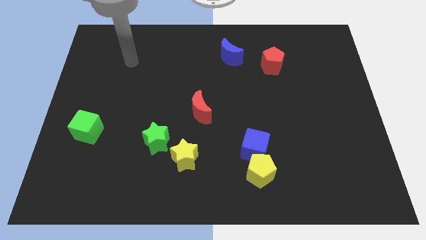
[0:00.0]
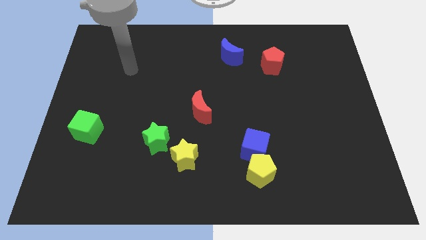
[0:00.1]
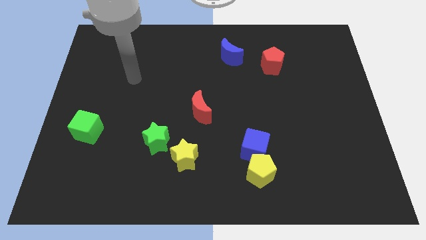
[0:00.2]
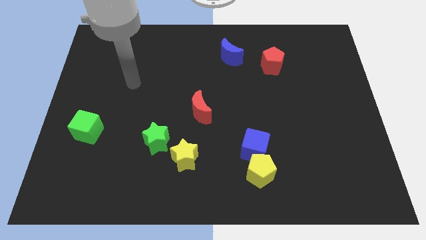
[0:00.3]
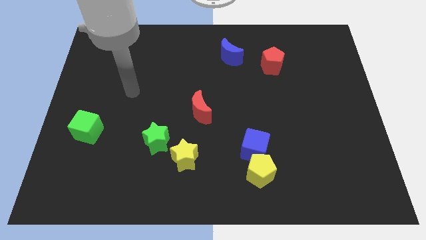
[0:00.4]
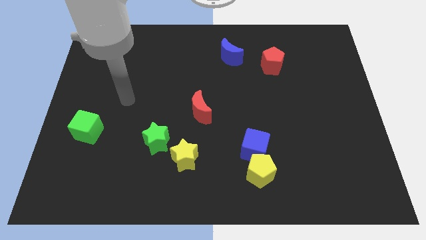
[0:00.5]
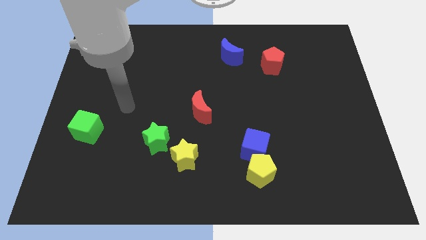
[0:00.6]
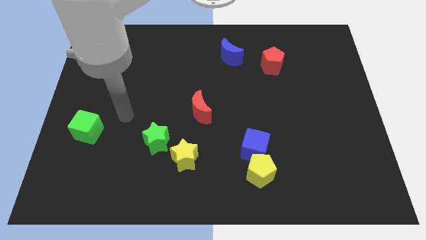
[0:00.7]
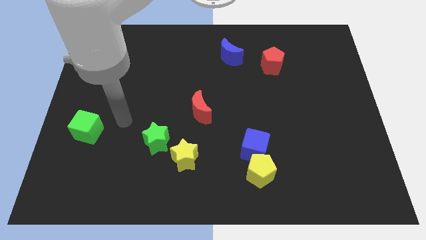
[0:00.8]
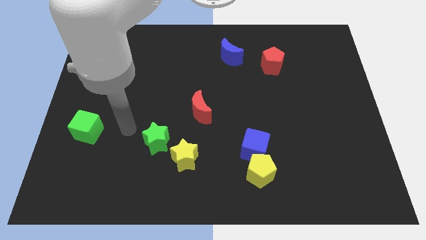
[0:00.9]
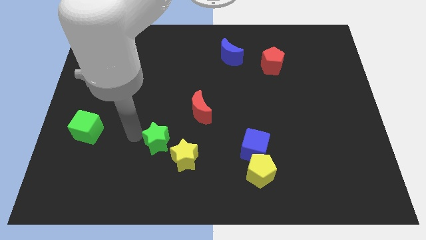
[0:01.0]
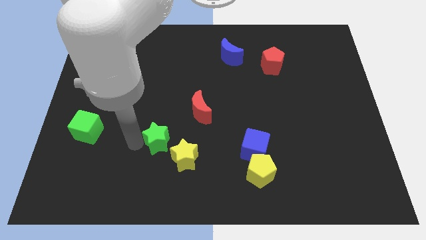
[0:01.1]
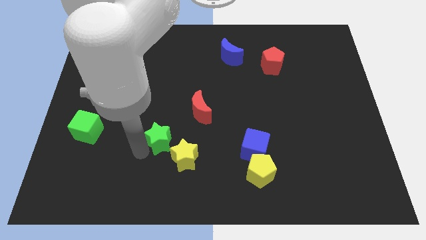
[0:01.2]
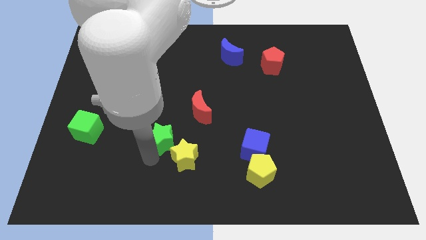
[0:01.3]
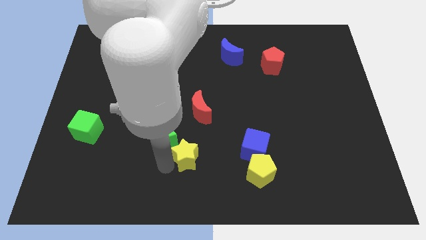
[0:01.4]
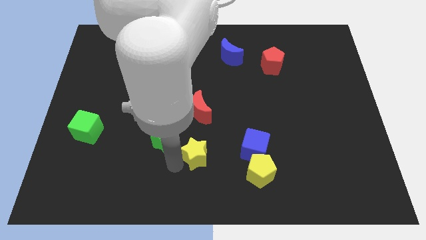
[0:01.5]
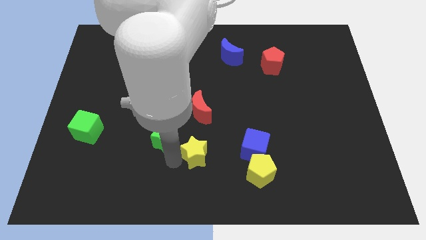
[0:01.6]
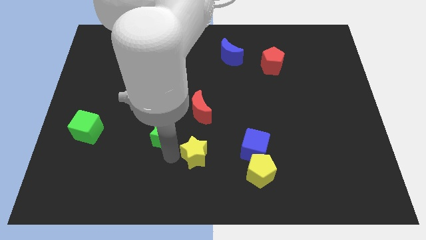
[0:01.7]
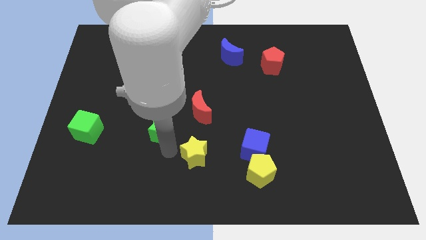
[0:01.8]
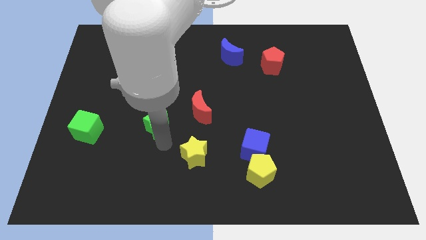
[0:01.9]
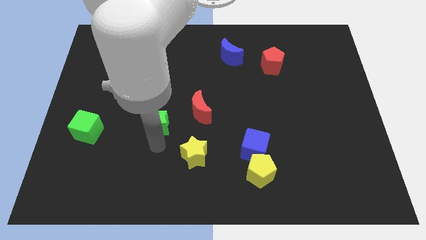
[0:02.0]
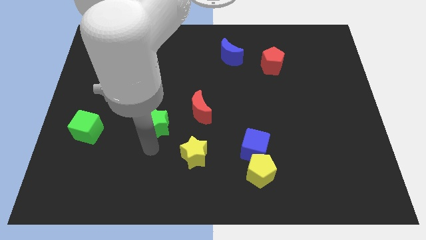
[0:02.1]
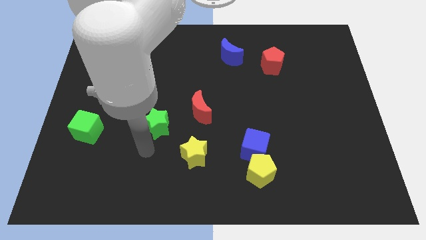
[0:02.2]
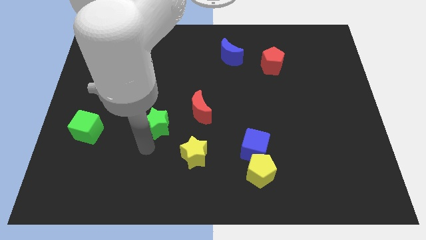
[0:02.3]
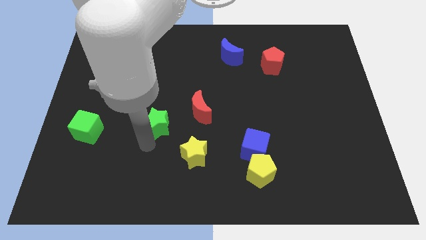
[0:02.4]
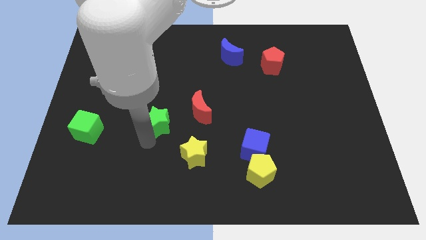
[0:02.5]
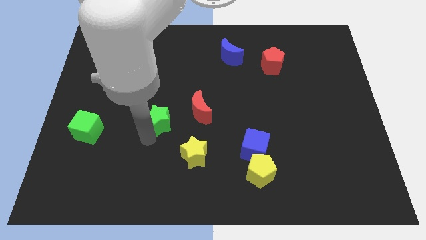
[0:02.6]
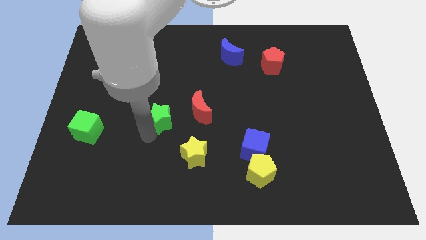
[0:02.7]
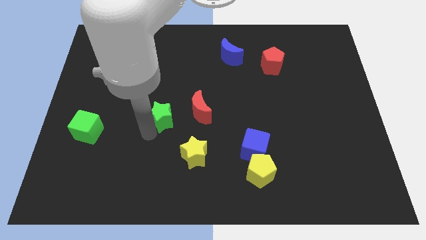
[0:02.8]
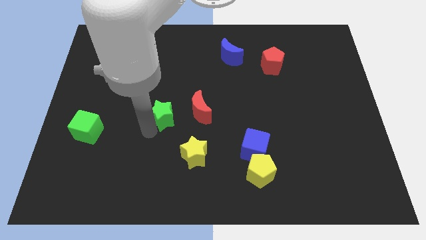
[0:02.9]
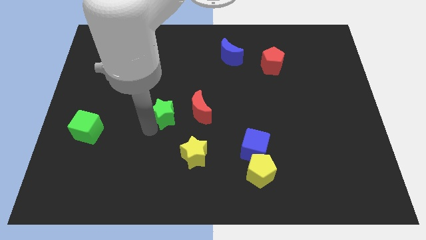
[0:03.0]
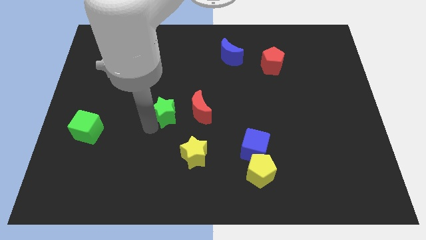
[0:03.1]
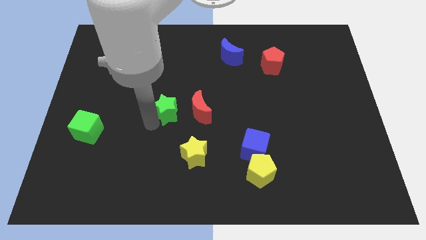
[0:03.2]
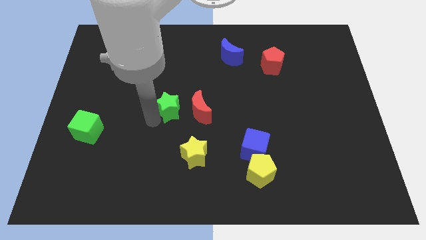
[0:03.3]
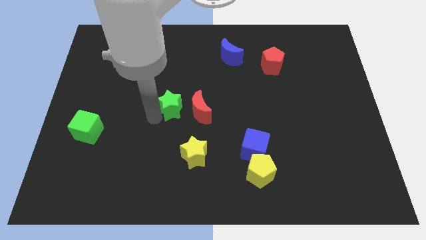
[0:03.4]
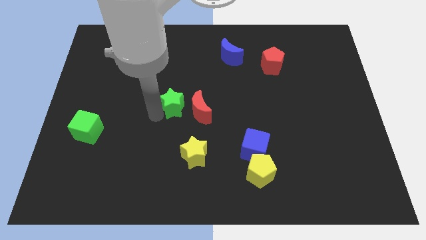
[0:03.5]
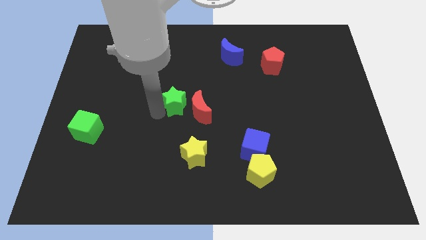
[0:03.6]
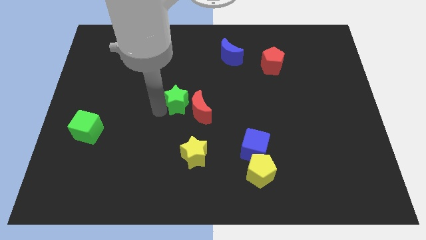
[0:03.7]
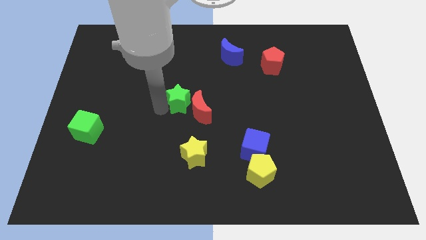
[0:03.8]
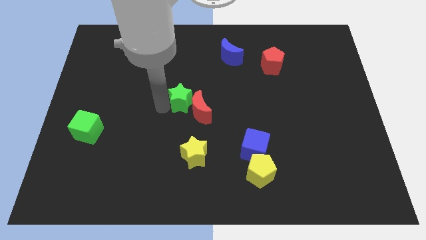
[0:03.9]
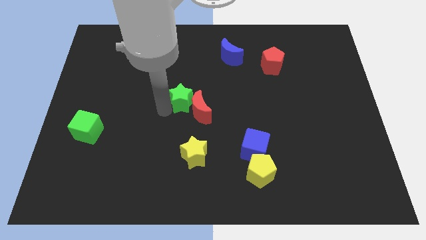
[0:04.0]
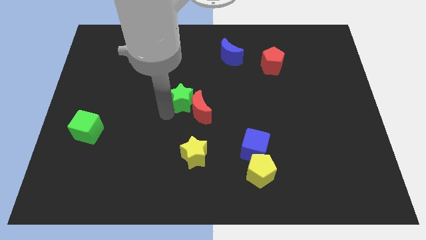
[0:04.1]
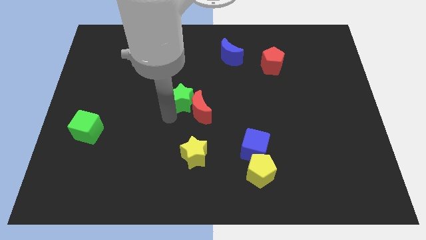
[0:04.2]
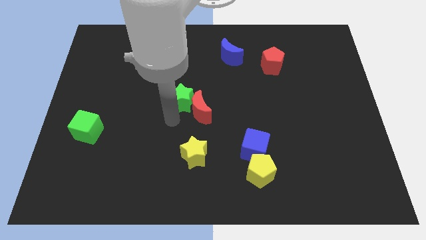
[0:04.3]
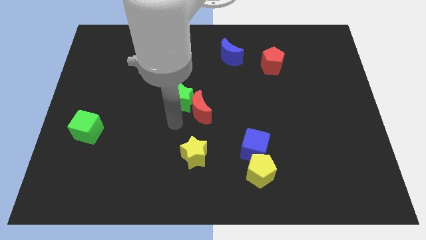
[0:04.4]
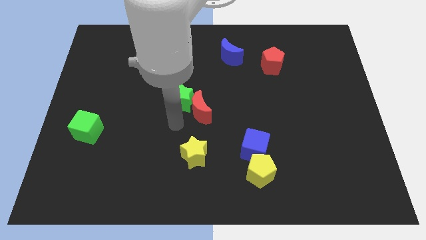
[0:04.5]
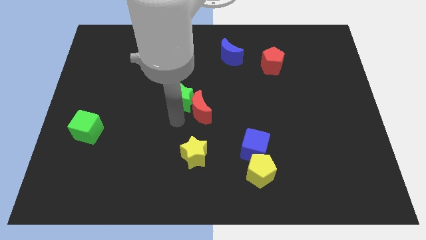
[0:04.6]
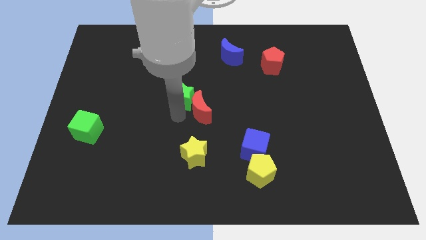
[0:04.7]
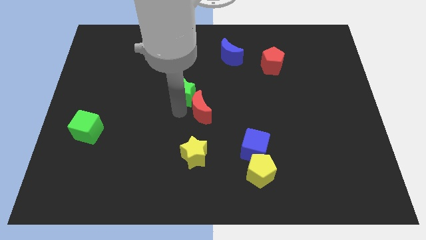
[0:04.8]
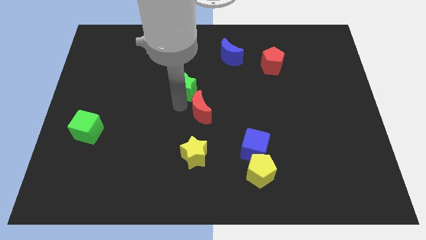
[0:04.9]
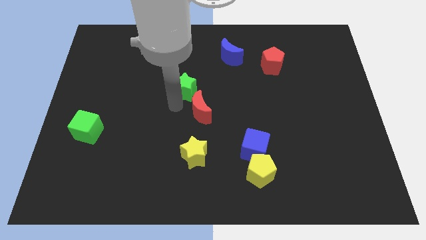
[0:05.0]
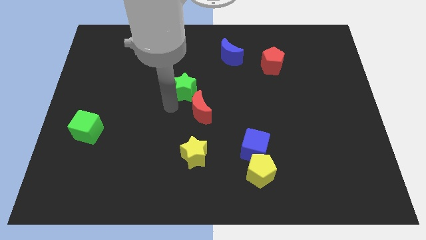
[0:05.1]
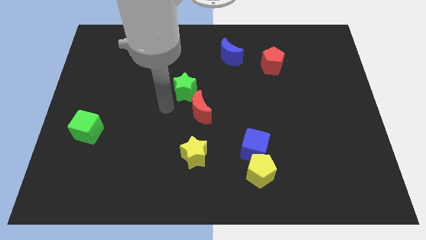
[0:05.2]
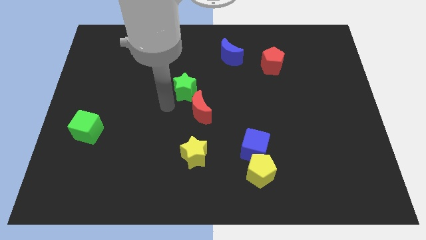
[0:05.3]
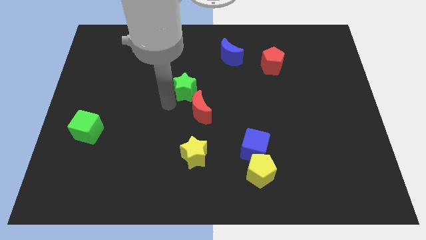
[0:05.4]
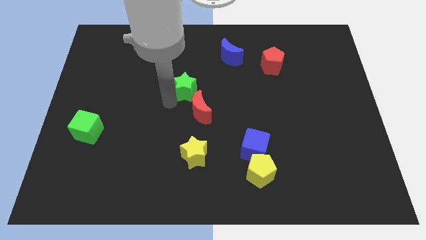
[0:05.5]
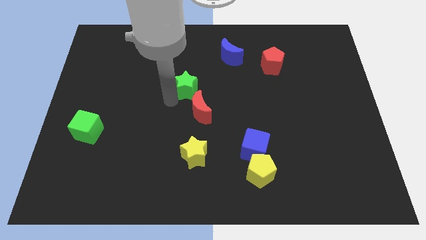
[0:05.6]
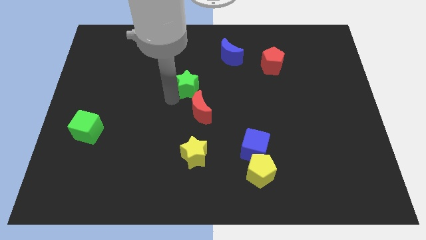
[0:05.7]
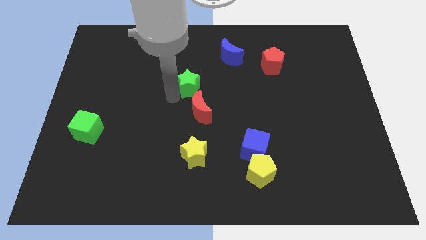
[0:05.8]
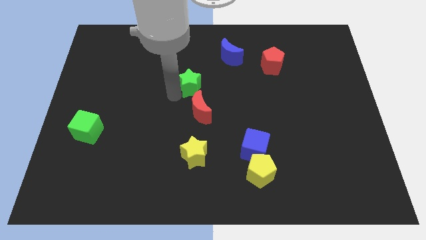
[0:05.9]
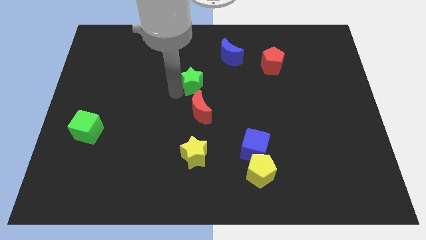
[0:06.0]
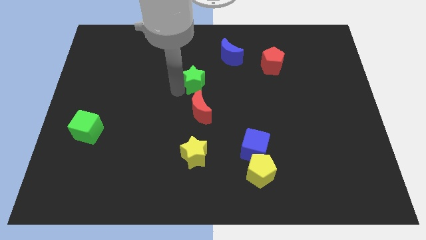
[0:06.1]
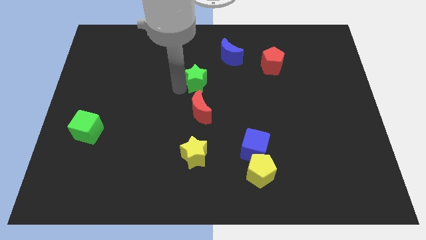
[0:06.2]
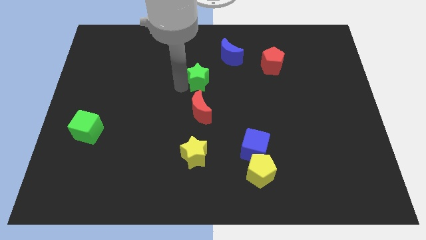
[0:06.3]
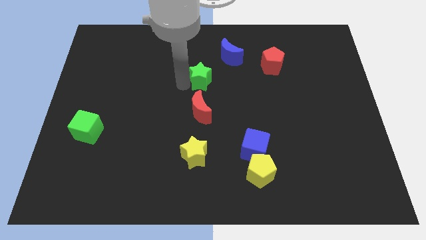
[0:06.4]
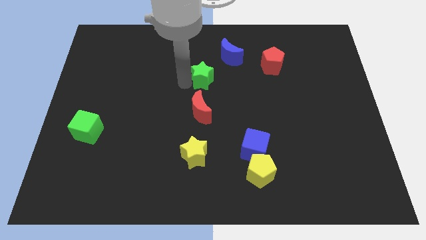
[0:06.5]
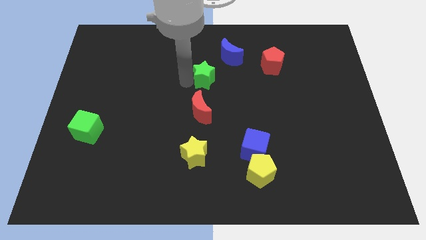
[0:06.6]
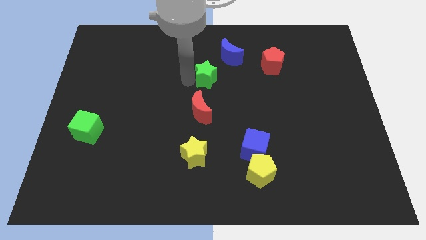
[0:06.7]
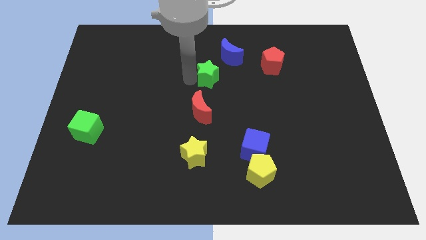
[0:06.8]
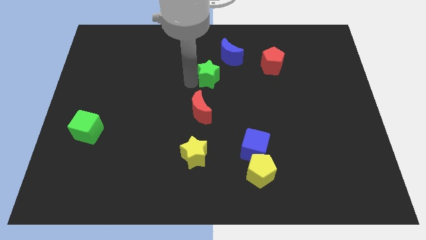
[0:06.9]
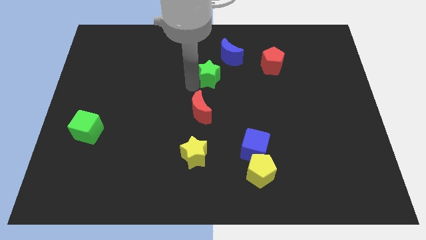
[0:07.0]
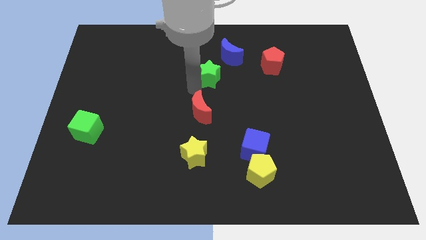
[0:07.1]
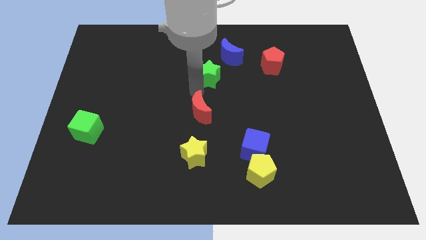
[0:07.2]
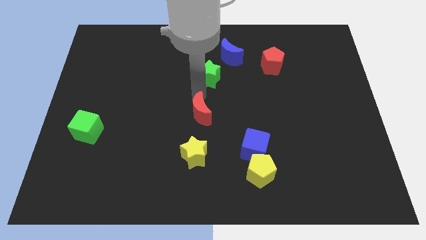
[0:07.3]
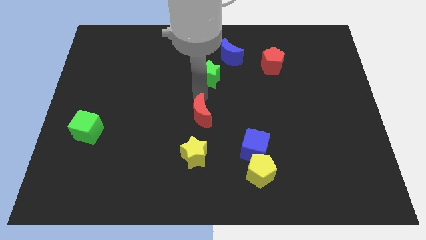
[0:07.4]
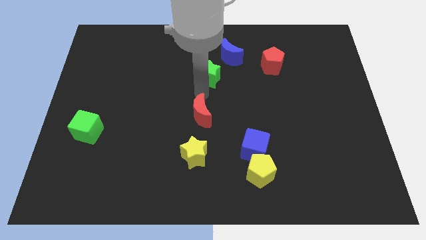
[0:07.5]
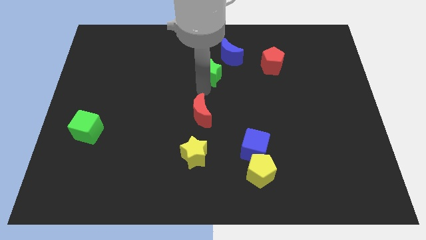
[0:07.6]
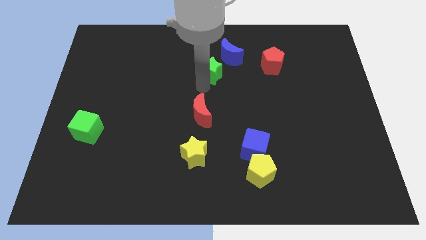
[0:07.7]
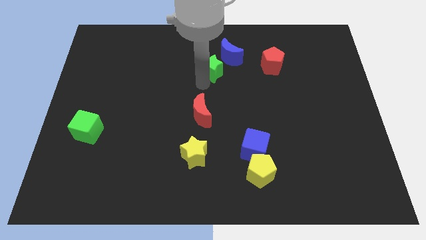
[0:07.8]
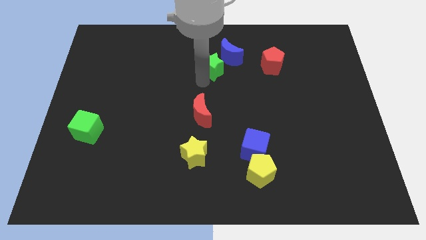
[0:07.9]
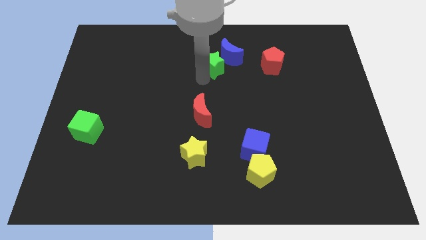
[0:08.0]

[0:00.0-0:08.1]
put the green star towards the blue moon

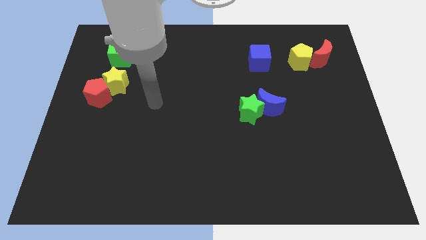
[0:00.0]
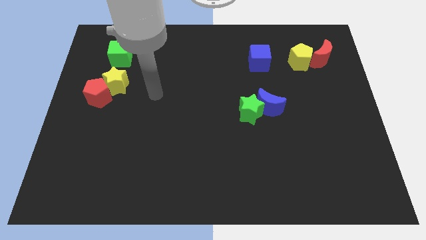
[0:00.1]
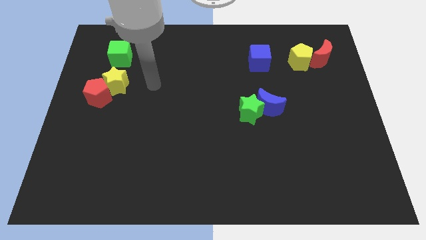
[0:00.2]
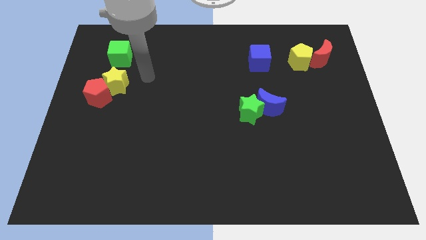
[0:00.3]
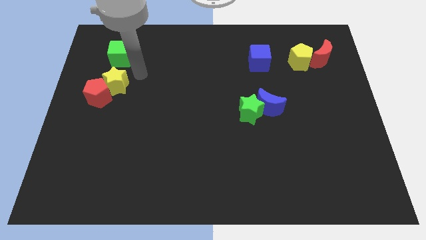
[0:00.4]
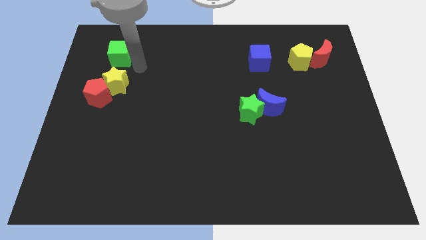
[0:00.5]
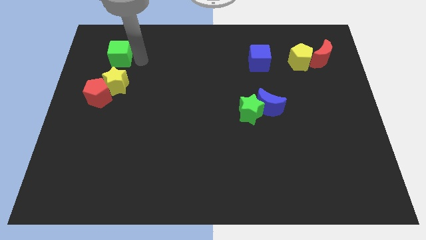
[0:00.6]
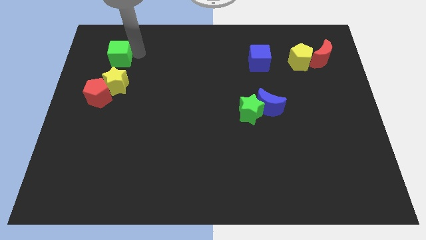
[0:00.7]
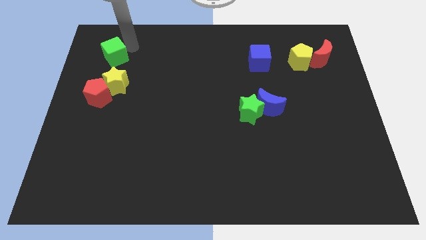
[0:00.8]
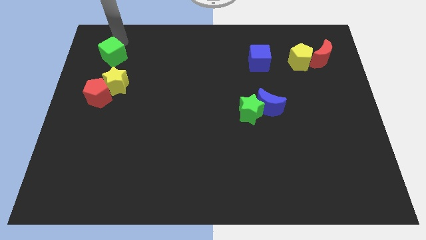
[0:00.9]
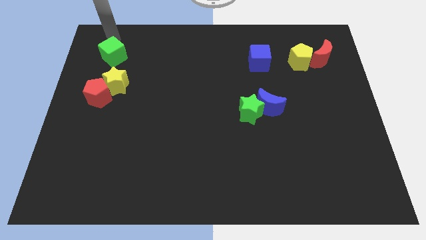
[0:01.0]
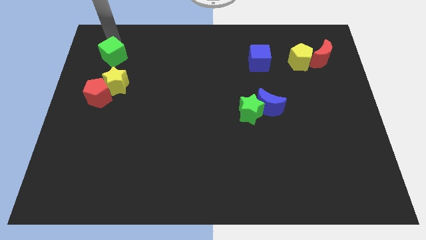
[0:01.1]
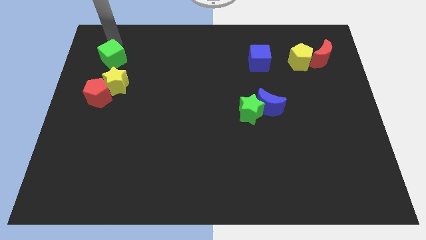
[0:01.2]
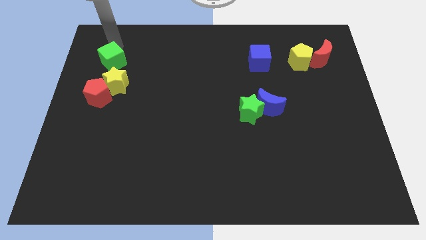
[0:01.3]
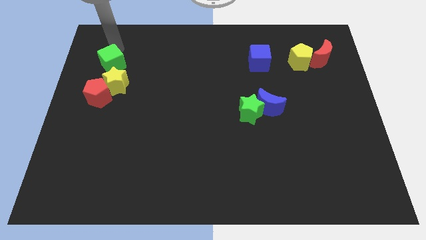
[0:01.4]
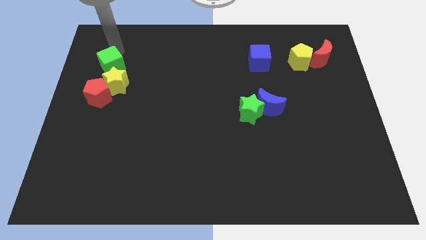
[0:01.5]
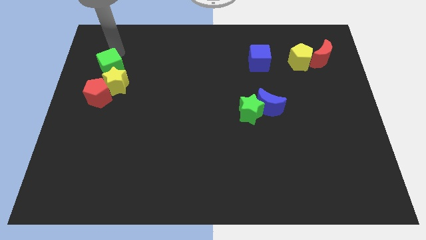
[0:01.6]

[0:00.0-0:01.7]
move the green cube to the yellow star
